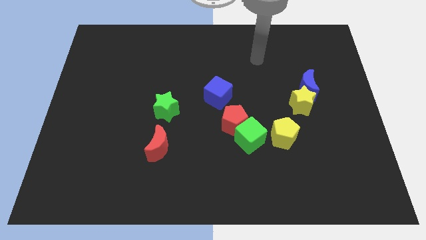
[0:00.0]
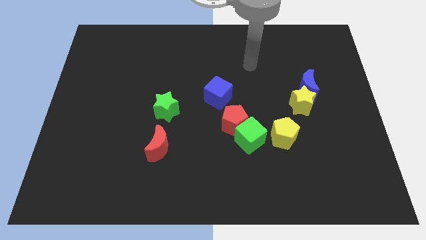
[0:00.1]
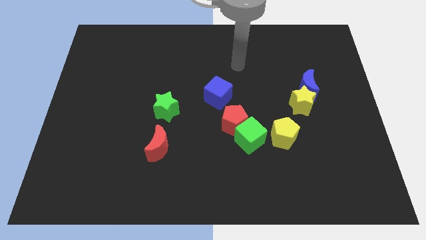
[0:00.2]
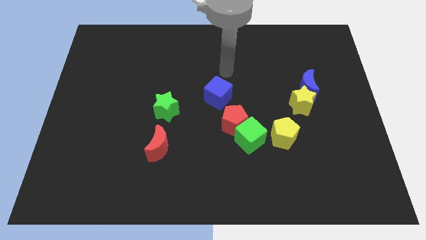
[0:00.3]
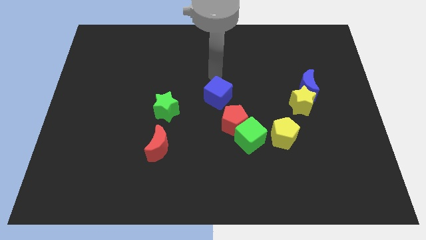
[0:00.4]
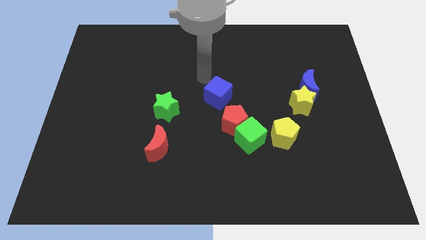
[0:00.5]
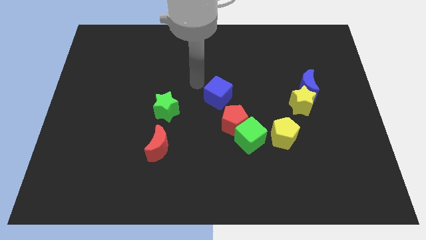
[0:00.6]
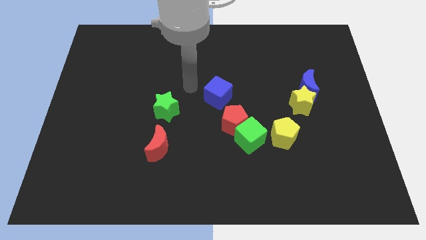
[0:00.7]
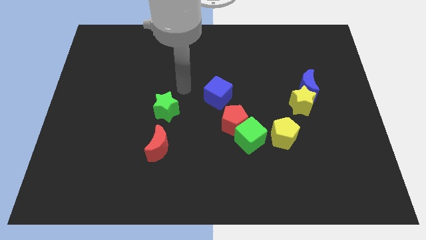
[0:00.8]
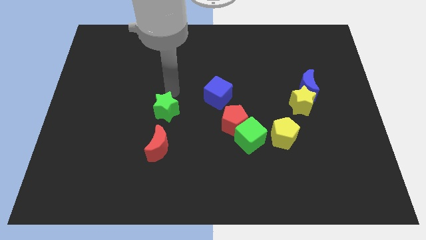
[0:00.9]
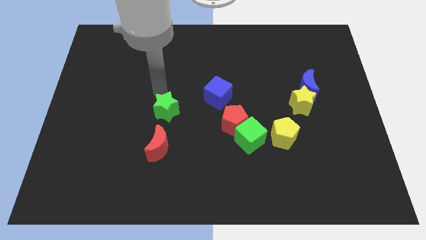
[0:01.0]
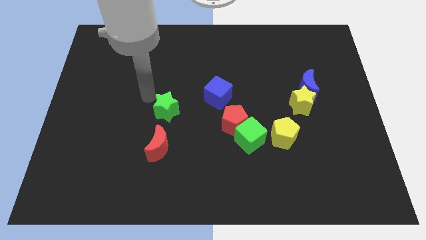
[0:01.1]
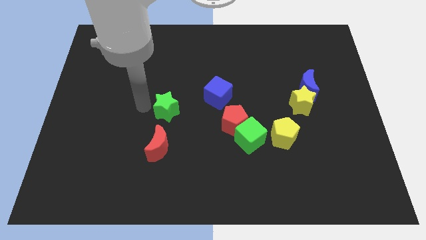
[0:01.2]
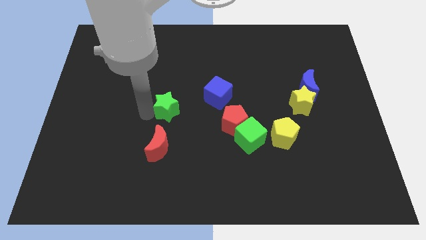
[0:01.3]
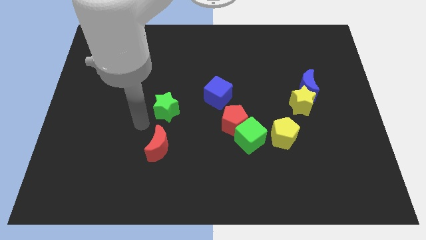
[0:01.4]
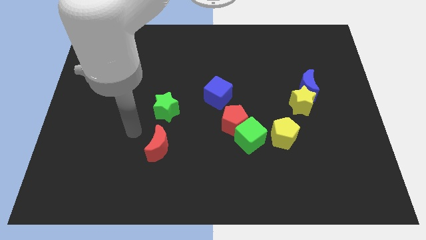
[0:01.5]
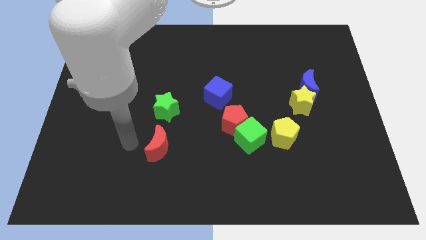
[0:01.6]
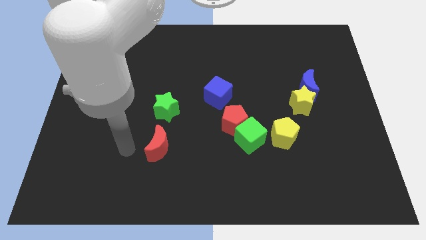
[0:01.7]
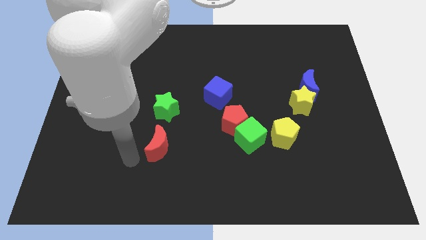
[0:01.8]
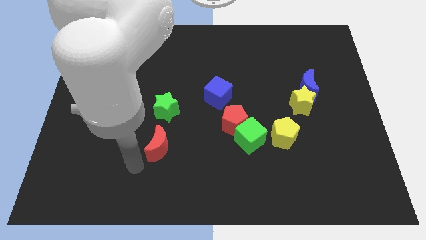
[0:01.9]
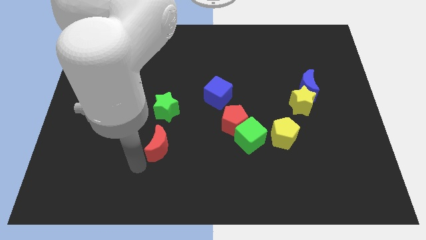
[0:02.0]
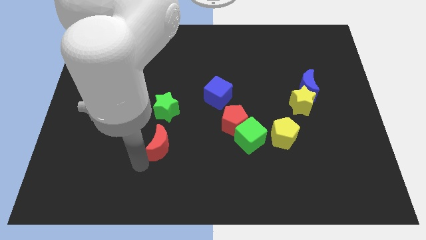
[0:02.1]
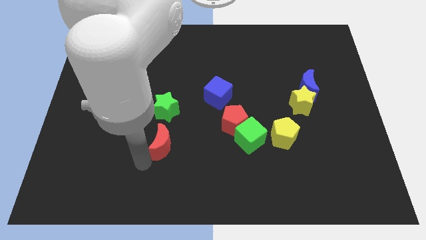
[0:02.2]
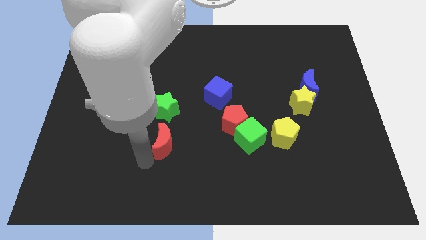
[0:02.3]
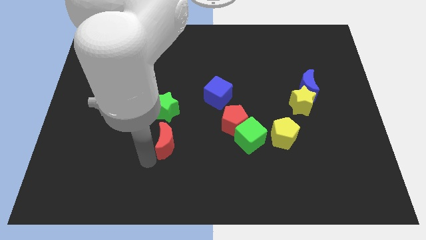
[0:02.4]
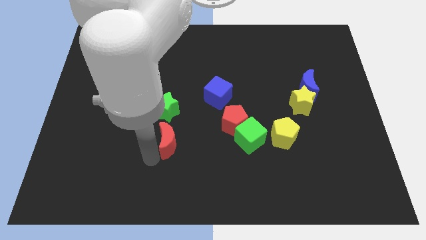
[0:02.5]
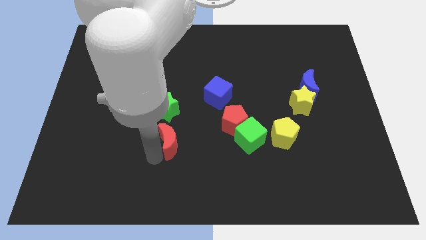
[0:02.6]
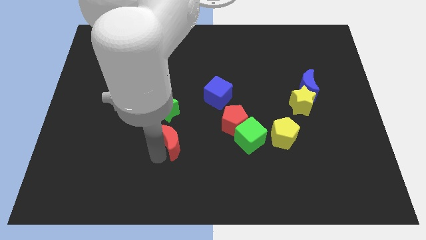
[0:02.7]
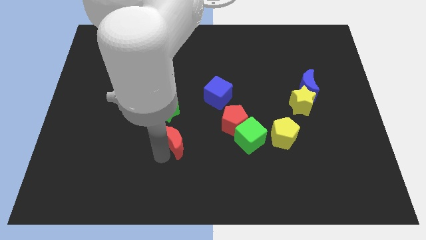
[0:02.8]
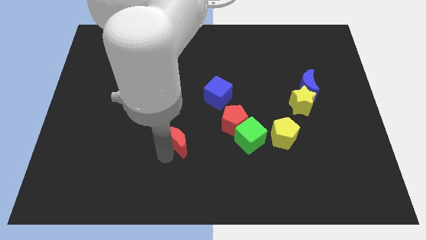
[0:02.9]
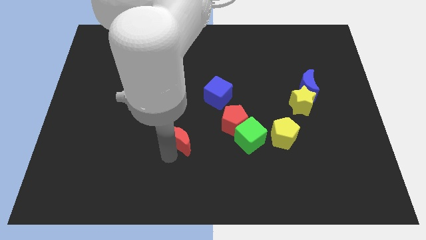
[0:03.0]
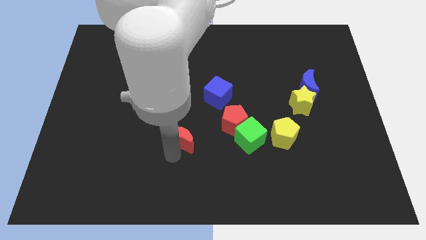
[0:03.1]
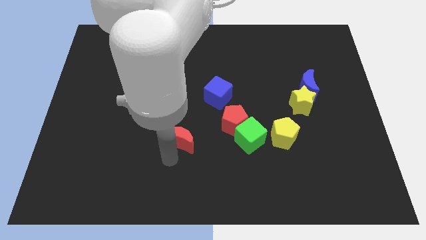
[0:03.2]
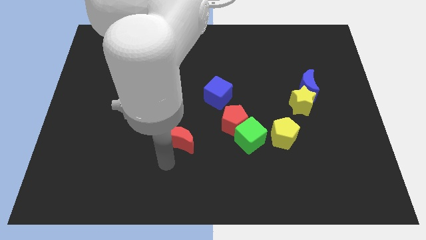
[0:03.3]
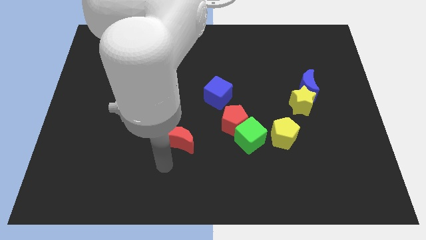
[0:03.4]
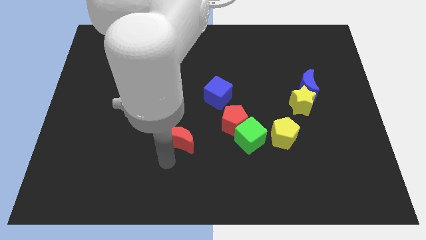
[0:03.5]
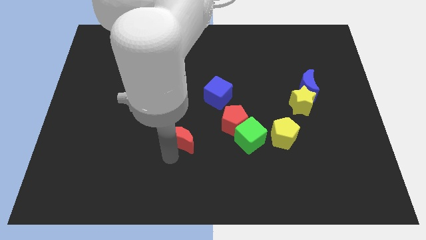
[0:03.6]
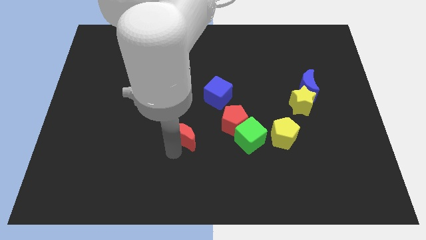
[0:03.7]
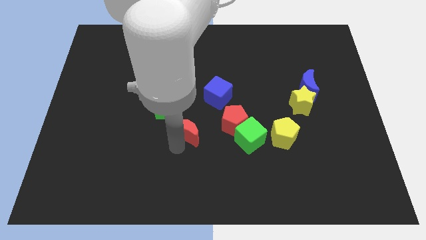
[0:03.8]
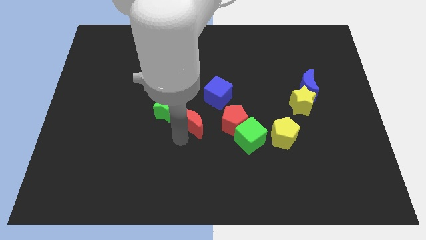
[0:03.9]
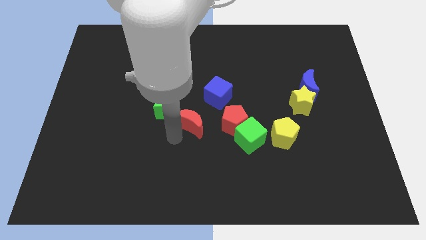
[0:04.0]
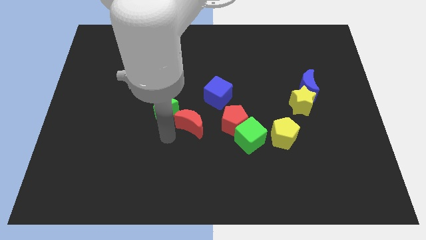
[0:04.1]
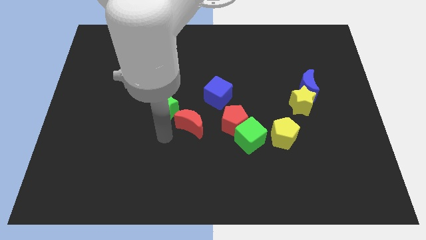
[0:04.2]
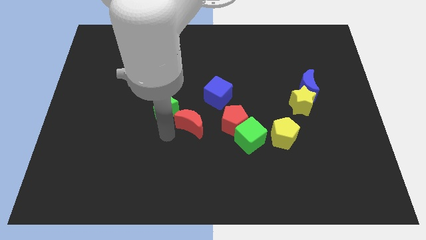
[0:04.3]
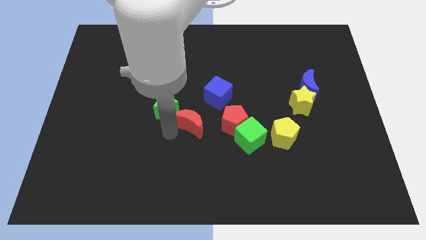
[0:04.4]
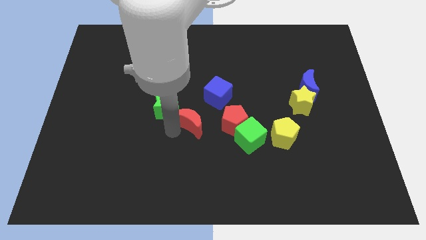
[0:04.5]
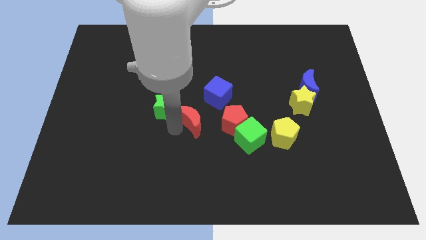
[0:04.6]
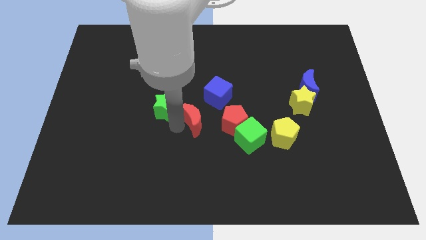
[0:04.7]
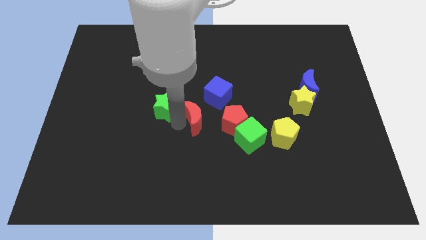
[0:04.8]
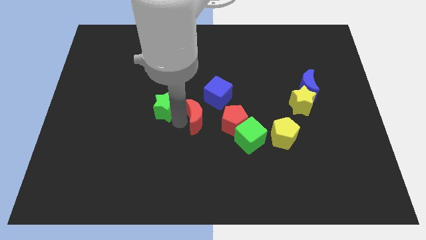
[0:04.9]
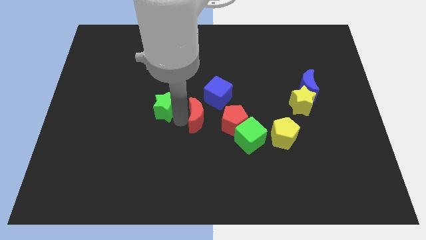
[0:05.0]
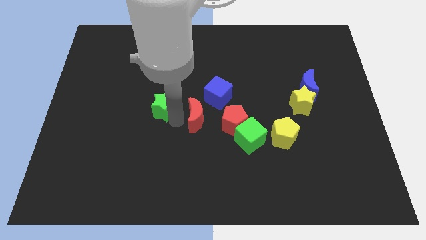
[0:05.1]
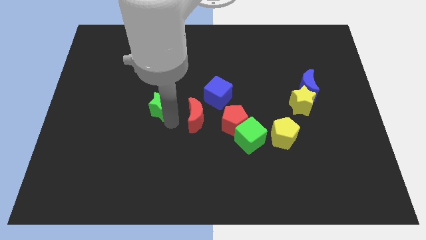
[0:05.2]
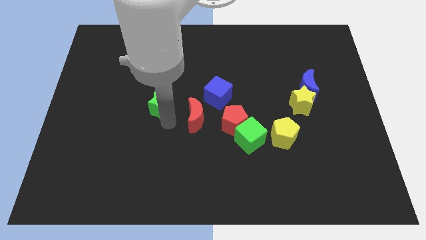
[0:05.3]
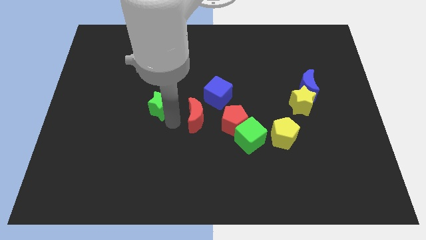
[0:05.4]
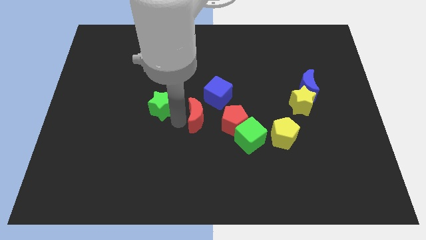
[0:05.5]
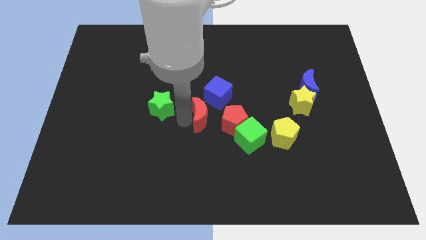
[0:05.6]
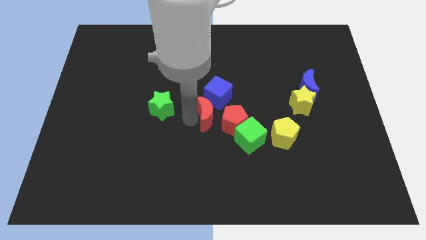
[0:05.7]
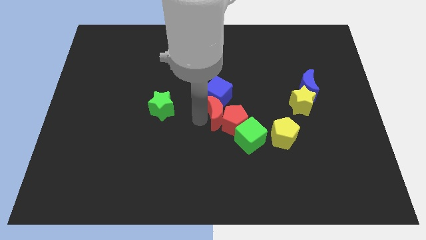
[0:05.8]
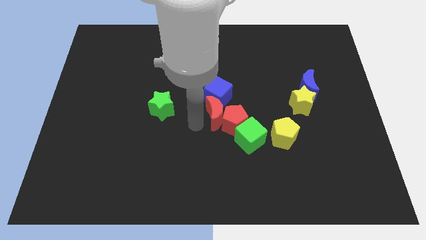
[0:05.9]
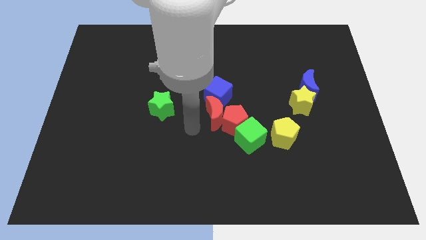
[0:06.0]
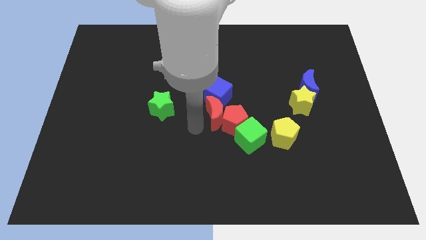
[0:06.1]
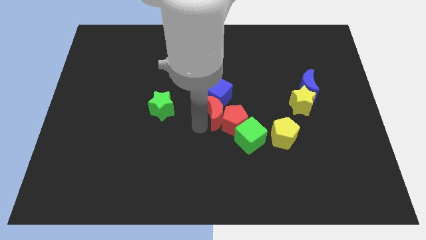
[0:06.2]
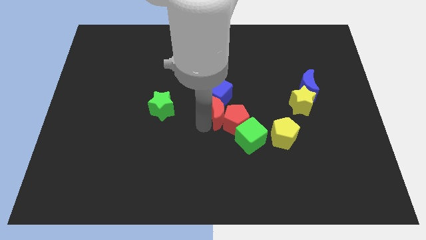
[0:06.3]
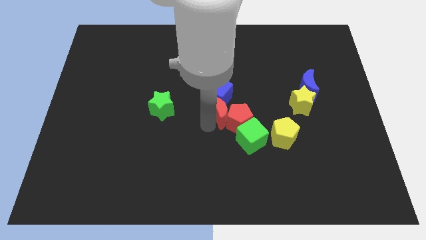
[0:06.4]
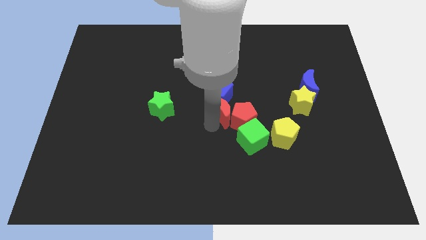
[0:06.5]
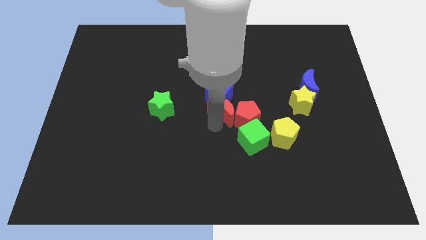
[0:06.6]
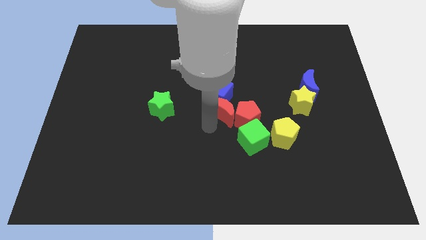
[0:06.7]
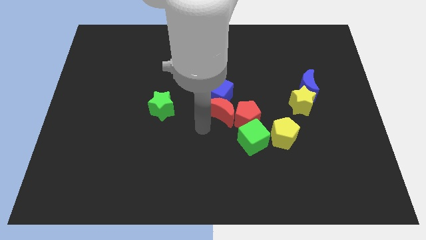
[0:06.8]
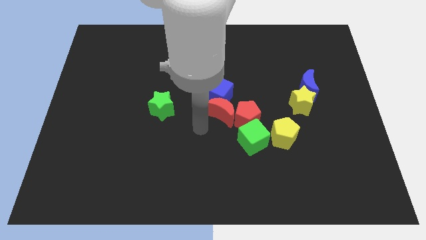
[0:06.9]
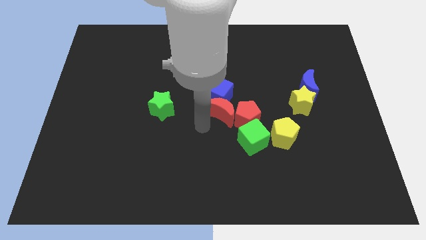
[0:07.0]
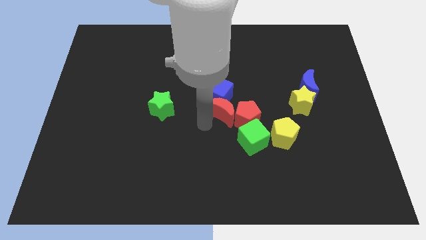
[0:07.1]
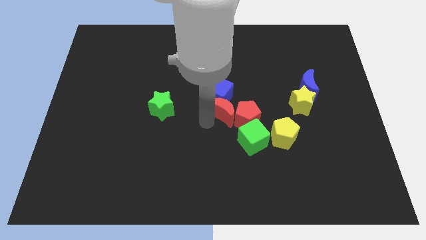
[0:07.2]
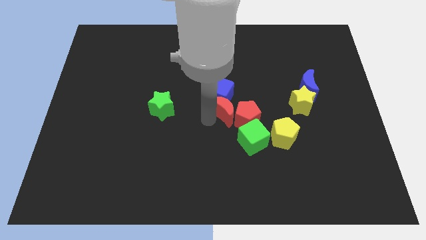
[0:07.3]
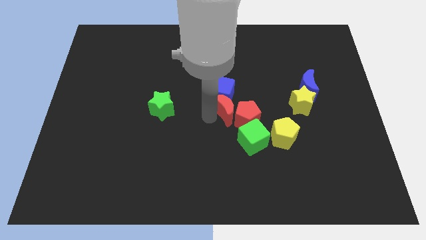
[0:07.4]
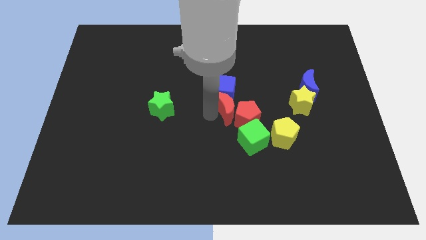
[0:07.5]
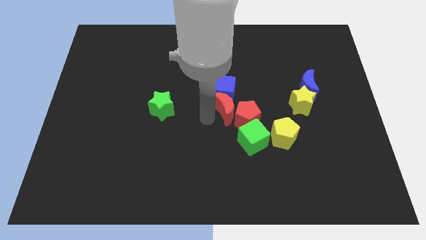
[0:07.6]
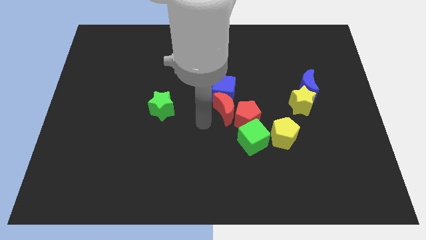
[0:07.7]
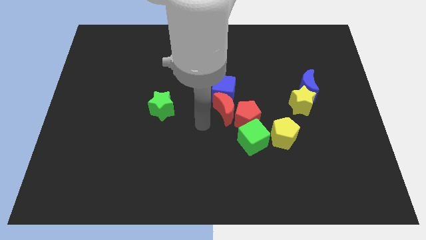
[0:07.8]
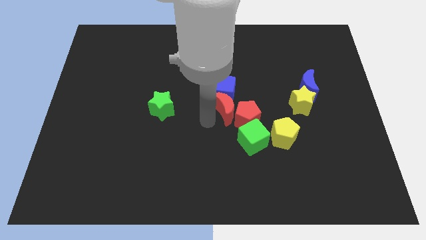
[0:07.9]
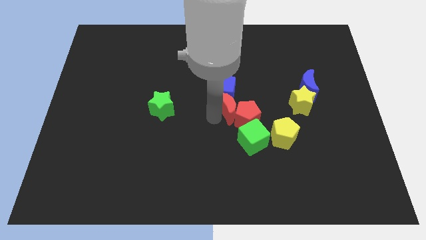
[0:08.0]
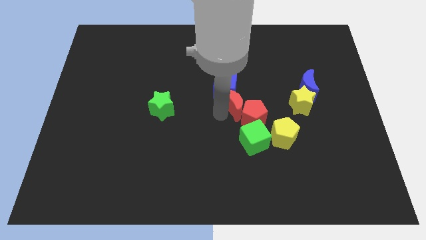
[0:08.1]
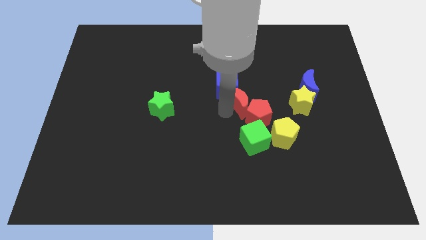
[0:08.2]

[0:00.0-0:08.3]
push the red moon diagonally upwards and right

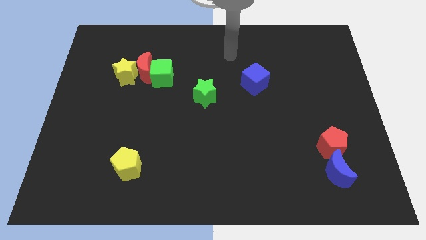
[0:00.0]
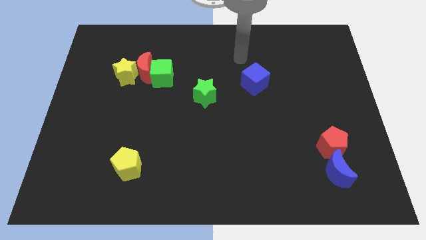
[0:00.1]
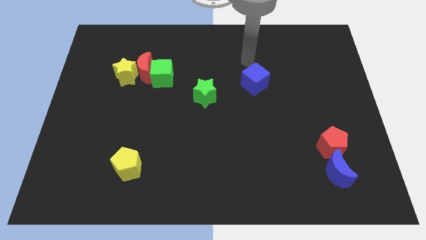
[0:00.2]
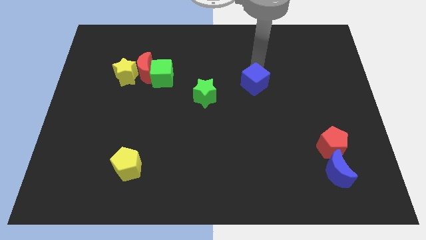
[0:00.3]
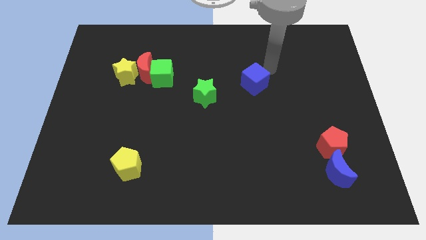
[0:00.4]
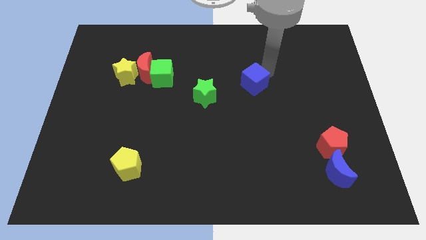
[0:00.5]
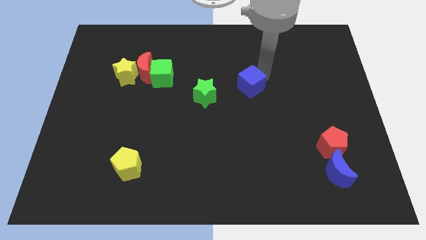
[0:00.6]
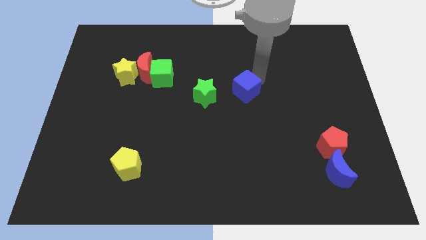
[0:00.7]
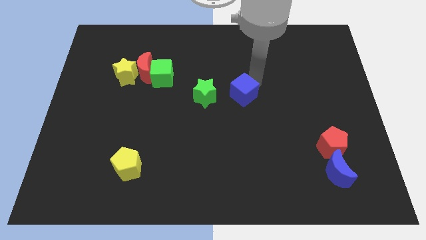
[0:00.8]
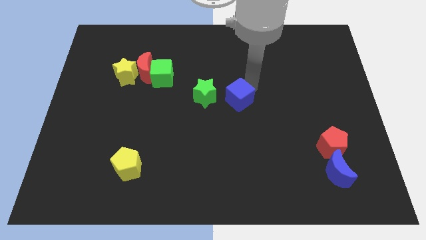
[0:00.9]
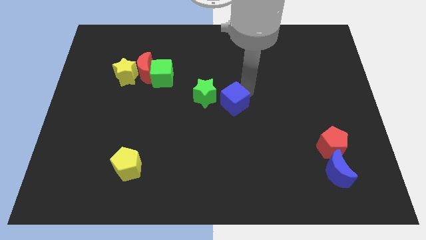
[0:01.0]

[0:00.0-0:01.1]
slide the blue cube downwards and then to the left somewhat
